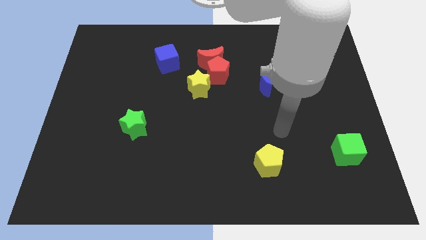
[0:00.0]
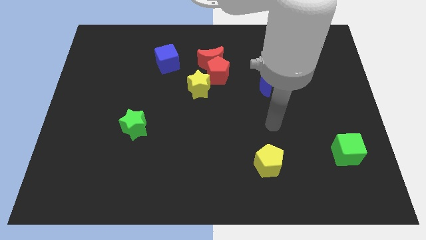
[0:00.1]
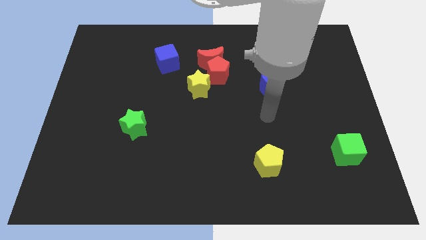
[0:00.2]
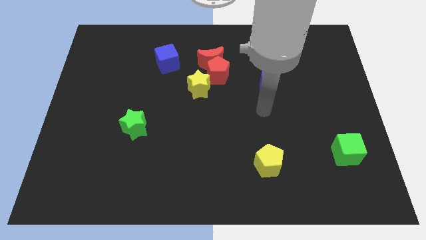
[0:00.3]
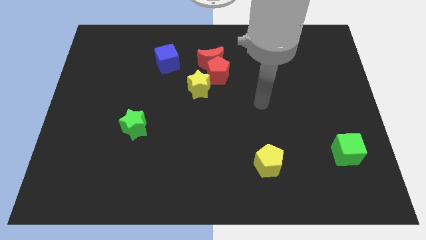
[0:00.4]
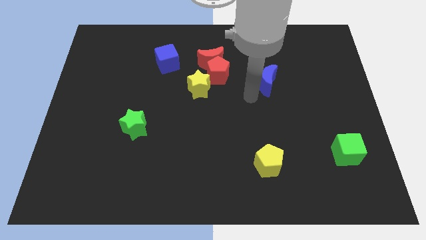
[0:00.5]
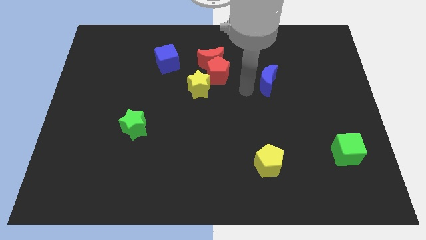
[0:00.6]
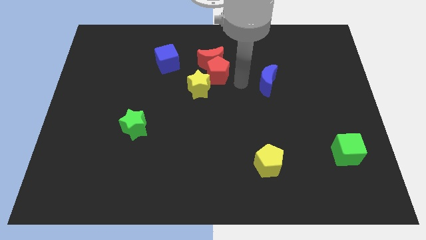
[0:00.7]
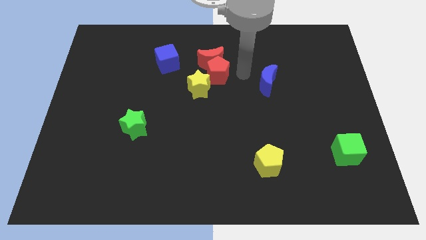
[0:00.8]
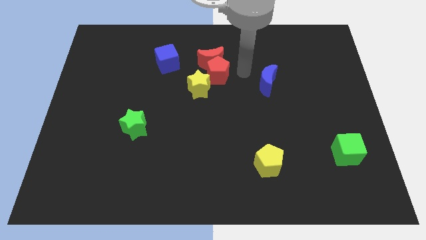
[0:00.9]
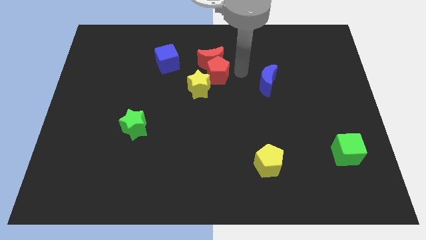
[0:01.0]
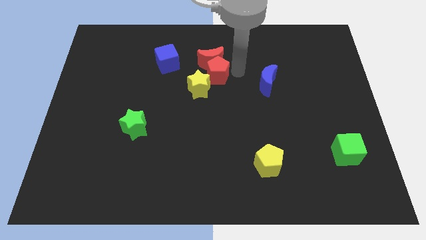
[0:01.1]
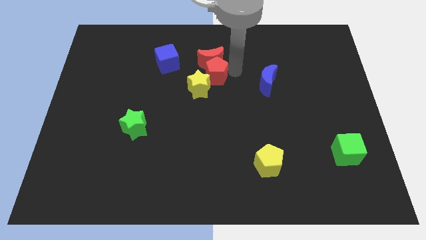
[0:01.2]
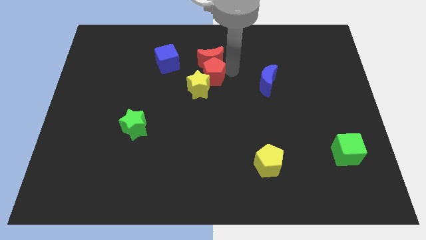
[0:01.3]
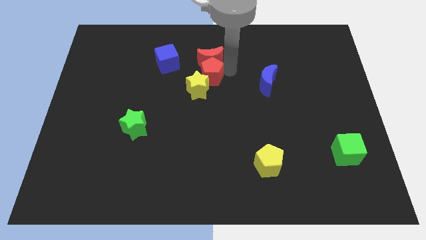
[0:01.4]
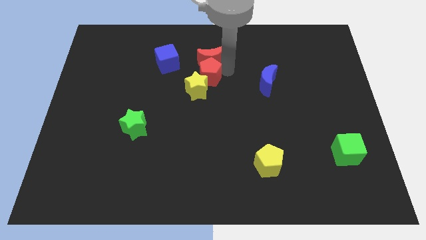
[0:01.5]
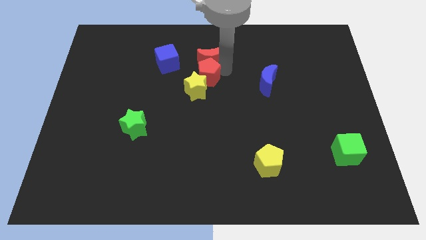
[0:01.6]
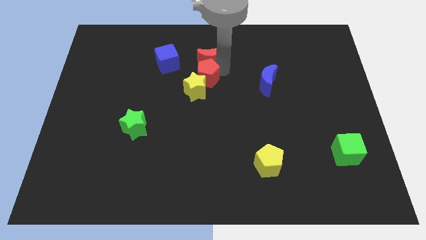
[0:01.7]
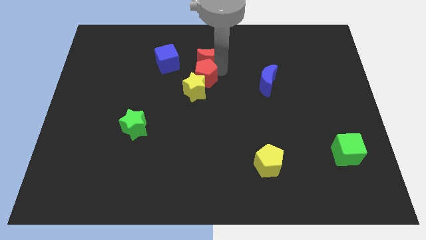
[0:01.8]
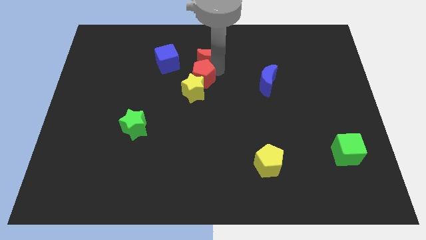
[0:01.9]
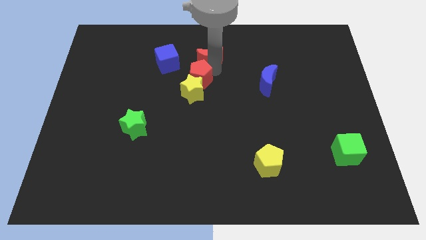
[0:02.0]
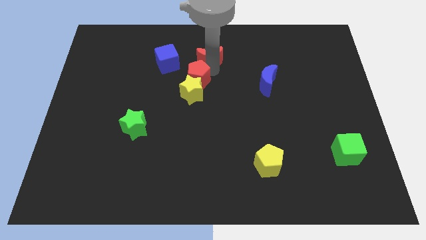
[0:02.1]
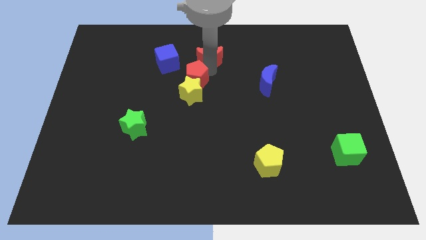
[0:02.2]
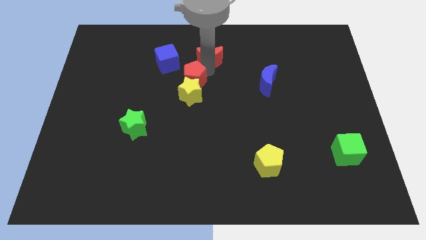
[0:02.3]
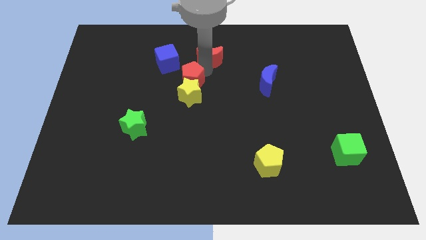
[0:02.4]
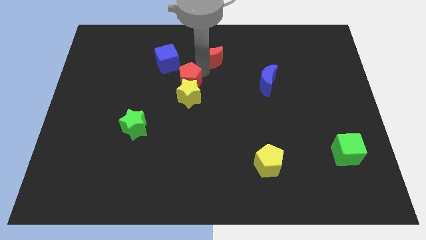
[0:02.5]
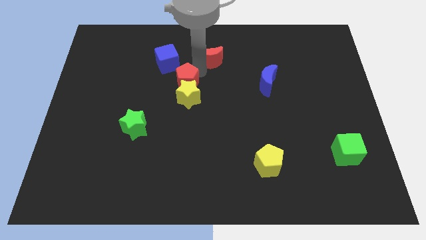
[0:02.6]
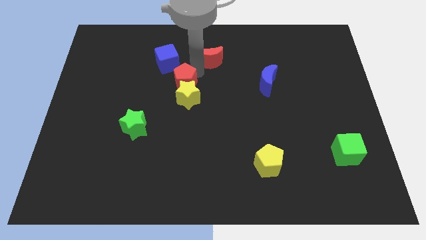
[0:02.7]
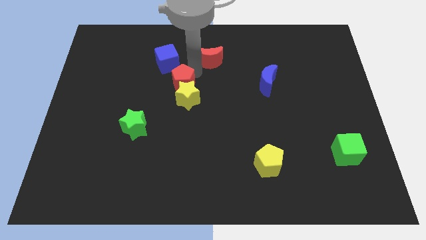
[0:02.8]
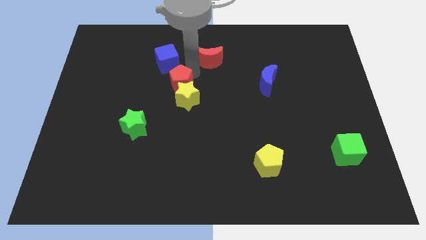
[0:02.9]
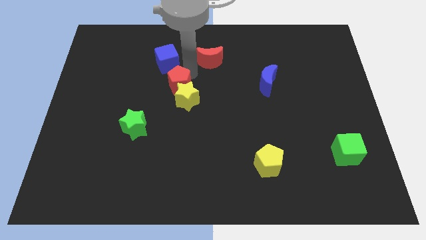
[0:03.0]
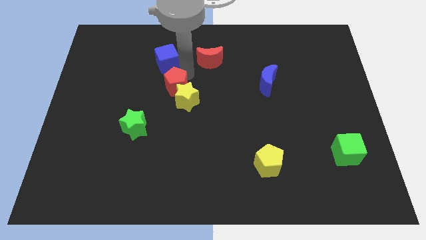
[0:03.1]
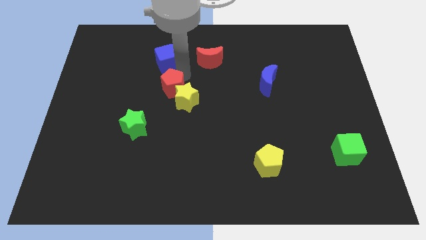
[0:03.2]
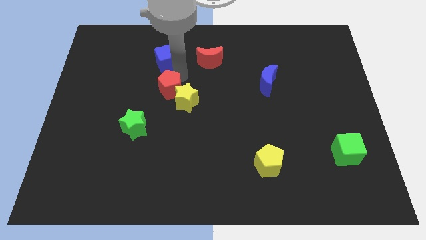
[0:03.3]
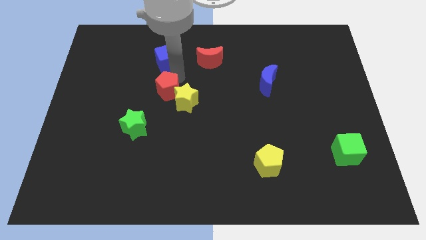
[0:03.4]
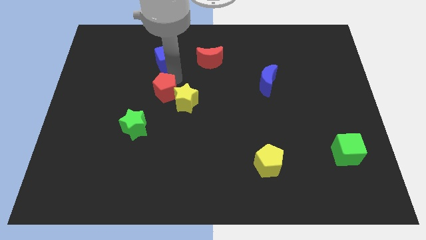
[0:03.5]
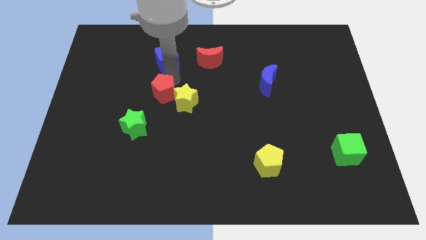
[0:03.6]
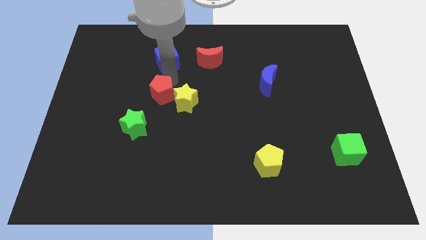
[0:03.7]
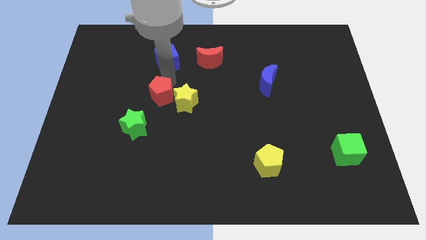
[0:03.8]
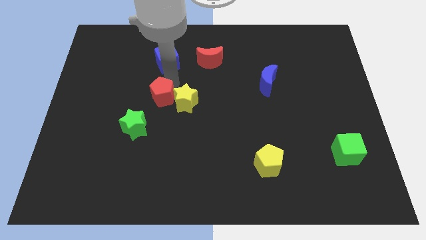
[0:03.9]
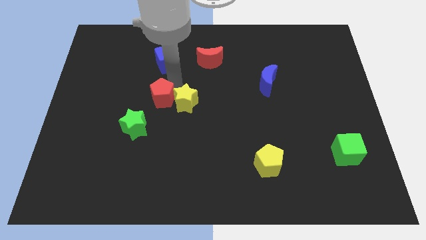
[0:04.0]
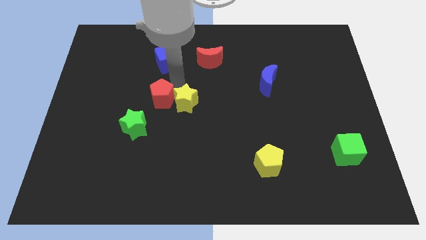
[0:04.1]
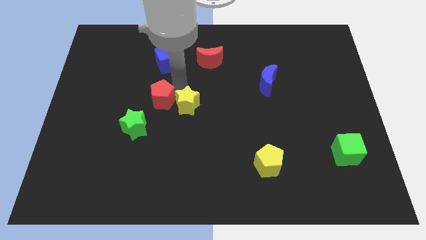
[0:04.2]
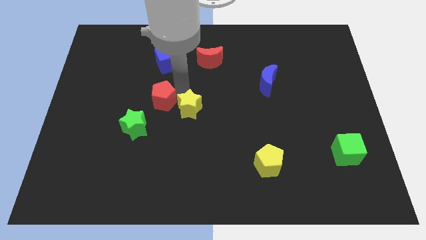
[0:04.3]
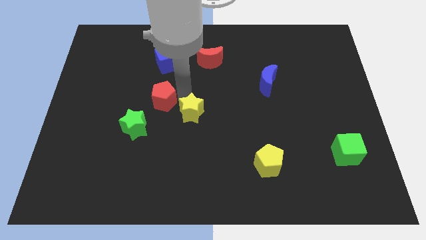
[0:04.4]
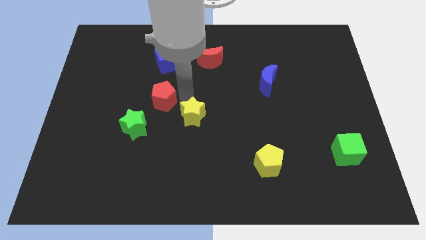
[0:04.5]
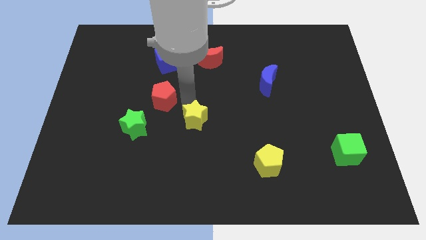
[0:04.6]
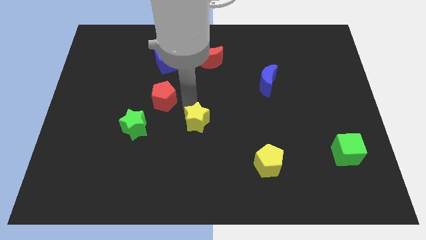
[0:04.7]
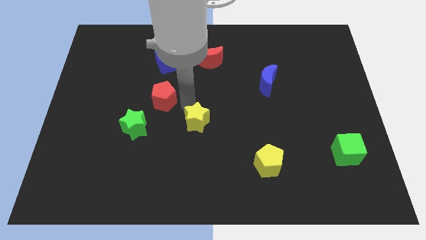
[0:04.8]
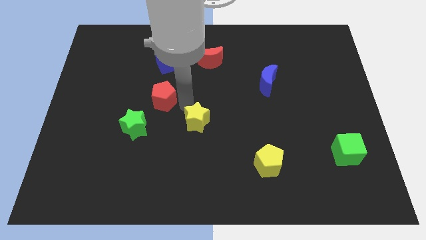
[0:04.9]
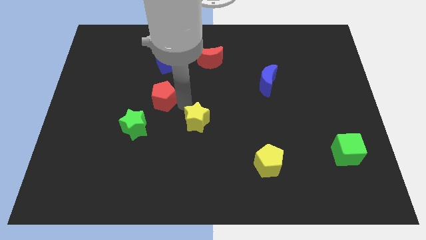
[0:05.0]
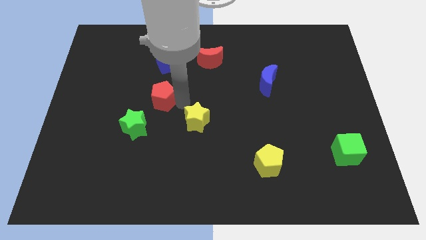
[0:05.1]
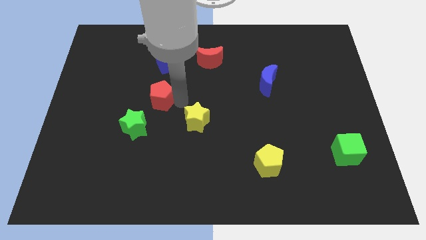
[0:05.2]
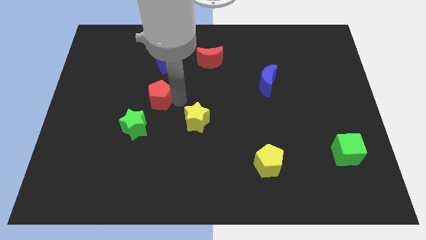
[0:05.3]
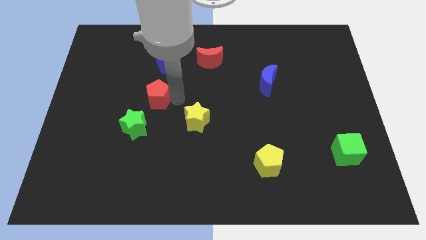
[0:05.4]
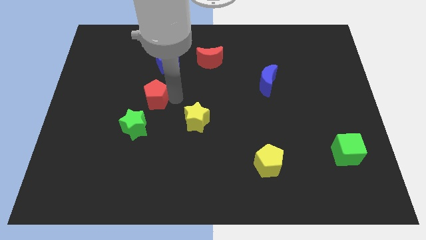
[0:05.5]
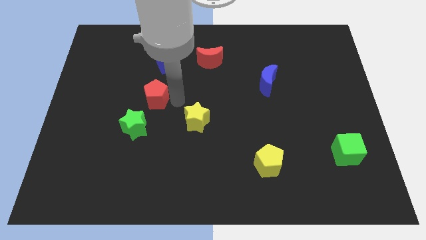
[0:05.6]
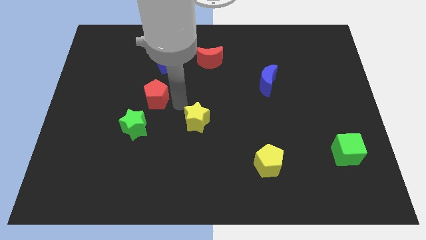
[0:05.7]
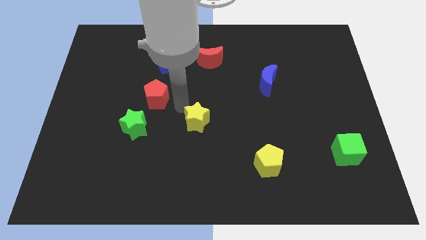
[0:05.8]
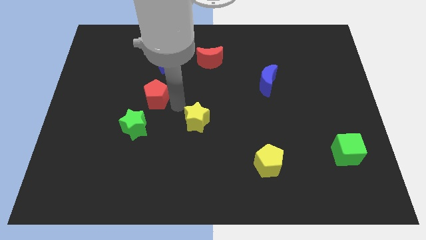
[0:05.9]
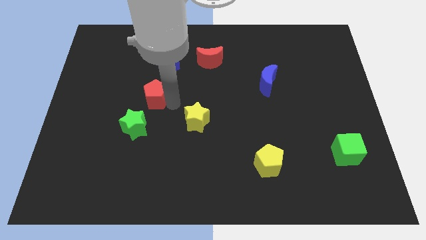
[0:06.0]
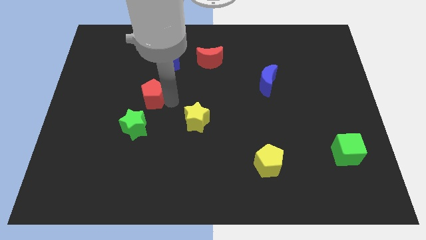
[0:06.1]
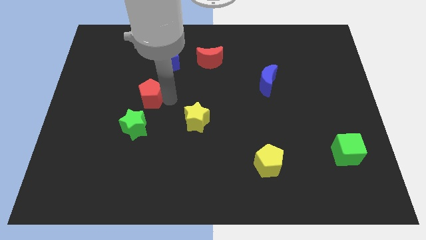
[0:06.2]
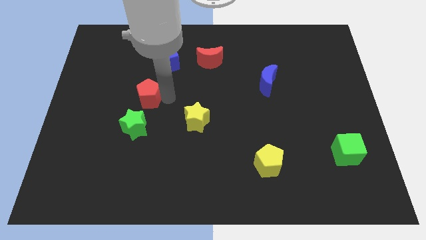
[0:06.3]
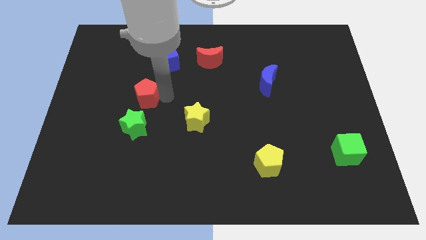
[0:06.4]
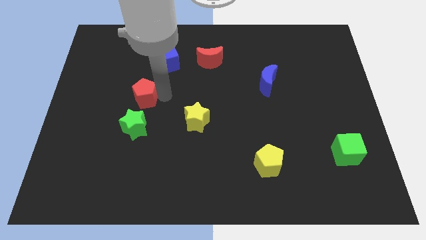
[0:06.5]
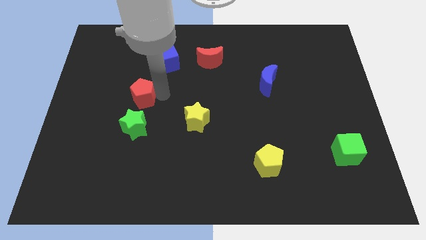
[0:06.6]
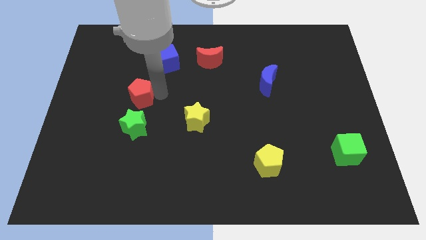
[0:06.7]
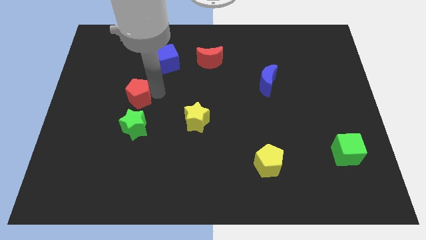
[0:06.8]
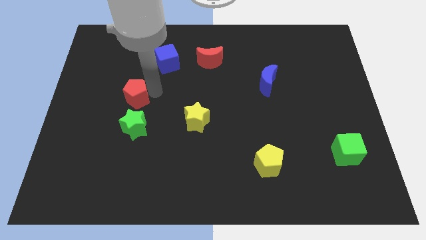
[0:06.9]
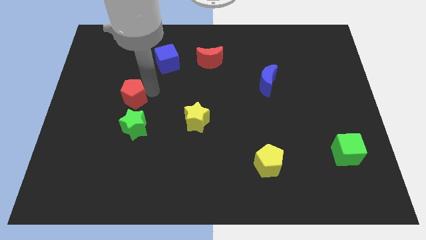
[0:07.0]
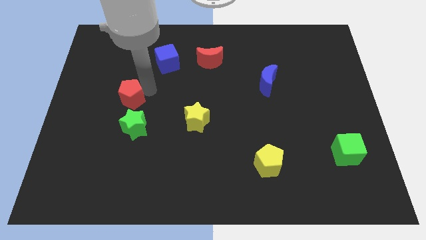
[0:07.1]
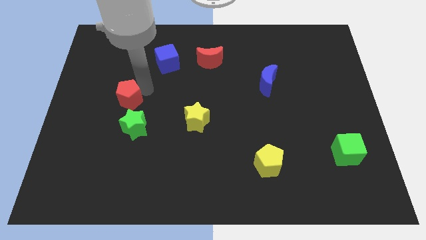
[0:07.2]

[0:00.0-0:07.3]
move the red pentagon to the top left side of the green star
